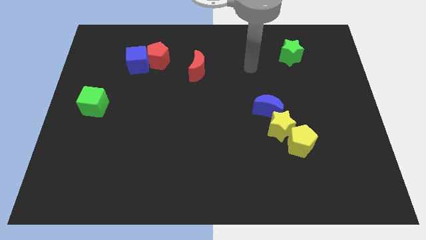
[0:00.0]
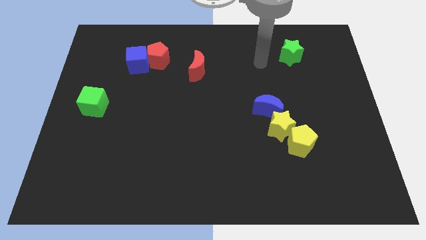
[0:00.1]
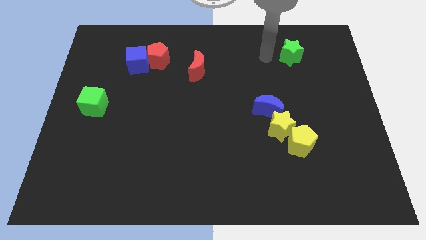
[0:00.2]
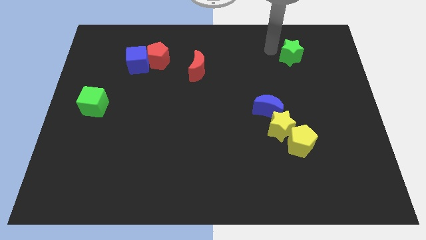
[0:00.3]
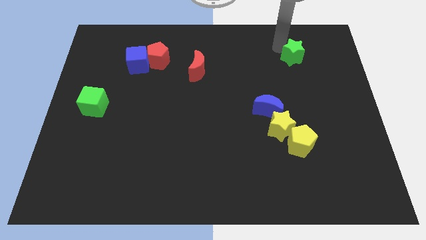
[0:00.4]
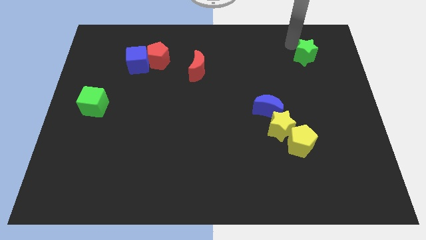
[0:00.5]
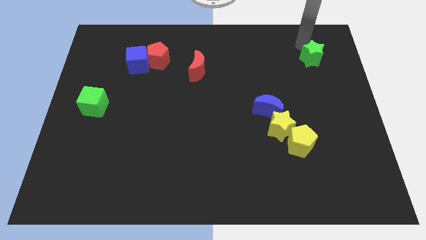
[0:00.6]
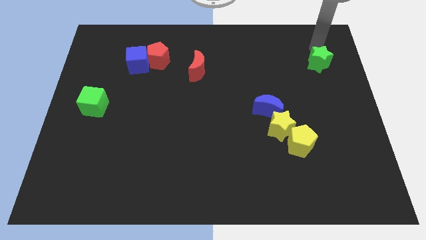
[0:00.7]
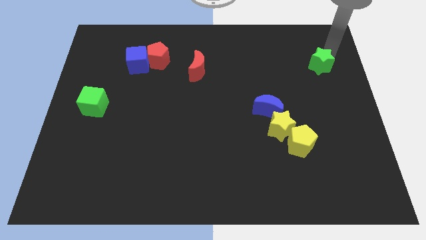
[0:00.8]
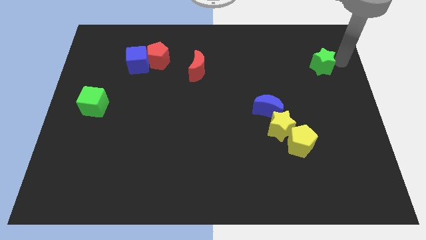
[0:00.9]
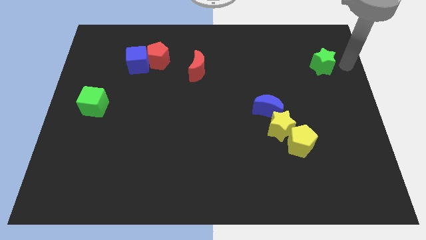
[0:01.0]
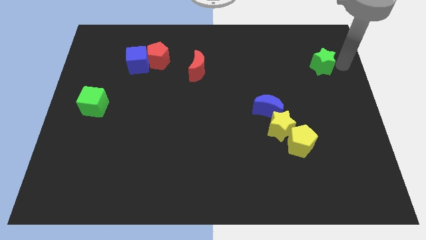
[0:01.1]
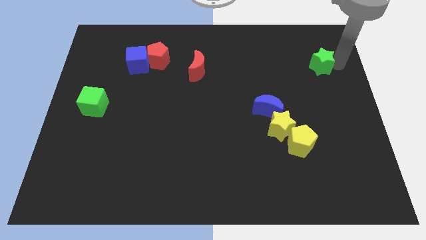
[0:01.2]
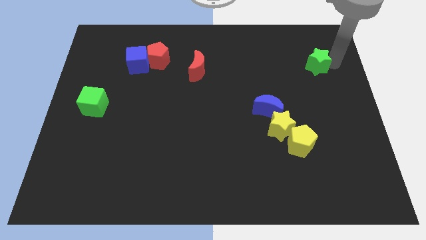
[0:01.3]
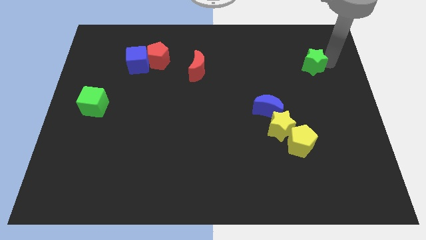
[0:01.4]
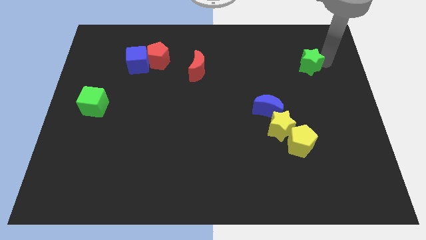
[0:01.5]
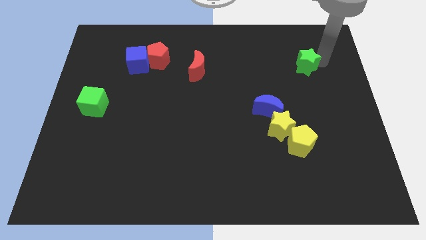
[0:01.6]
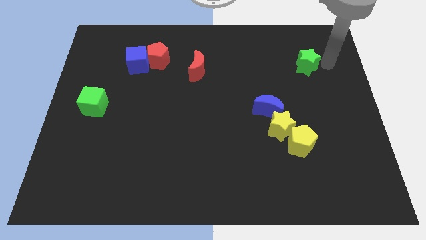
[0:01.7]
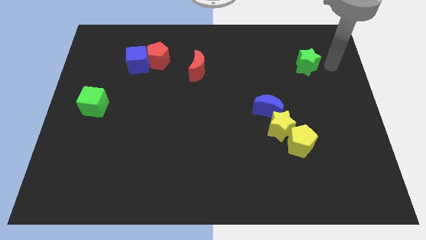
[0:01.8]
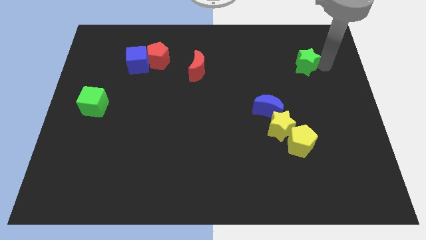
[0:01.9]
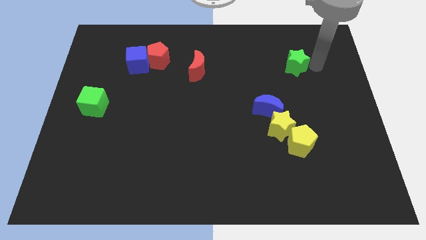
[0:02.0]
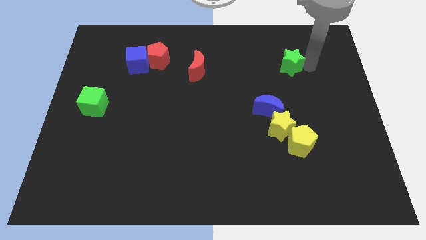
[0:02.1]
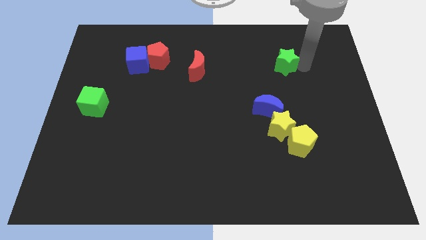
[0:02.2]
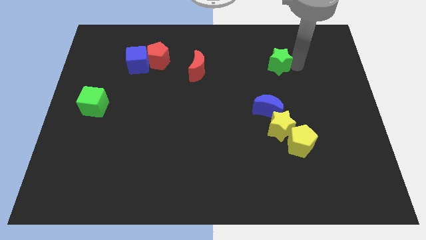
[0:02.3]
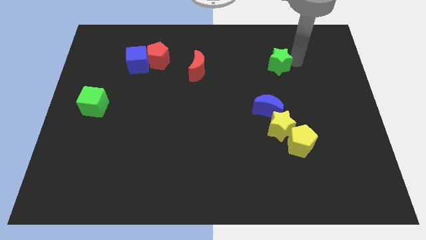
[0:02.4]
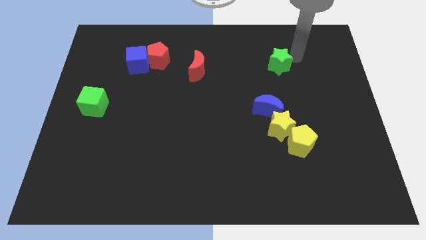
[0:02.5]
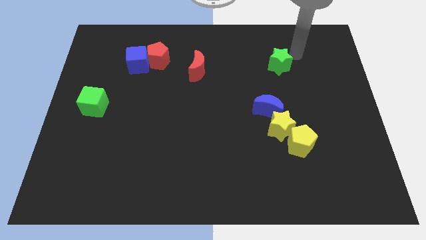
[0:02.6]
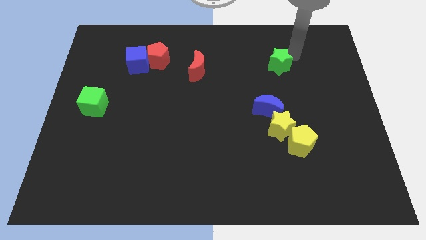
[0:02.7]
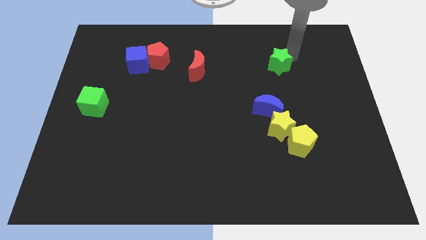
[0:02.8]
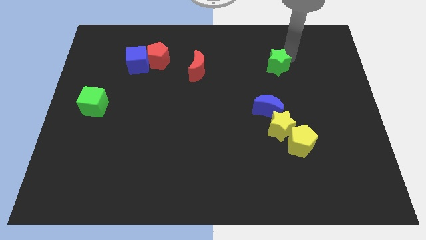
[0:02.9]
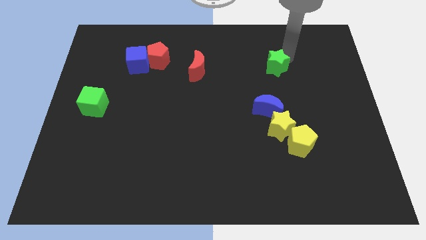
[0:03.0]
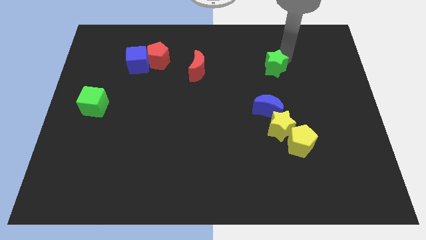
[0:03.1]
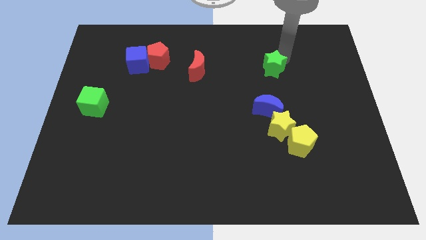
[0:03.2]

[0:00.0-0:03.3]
slide the green star a little diagonally downwards and left

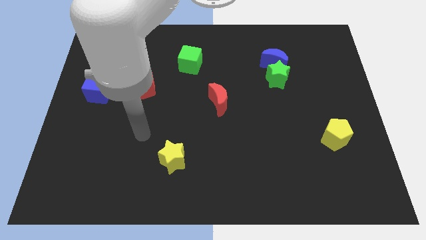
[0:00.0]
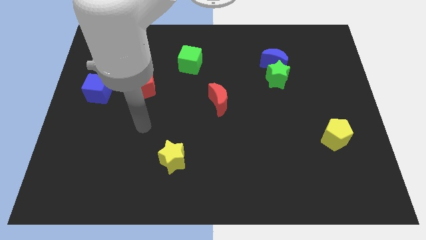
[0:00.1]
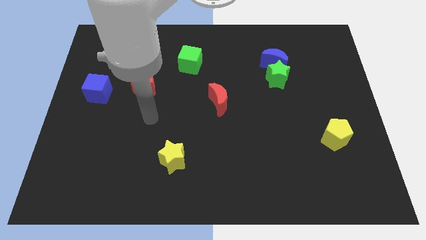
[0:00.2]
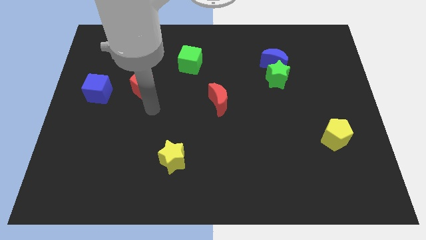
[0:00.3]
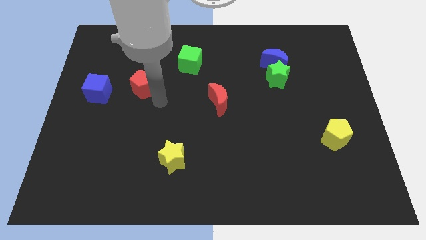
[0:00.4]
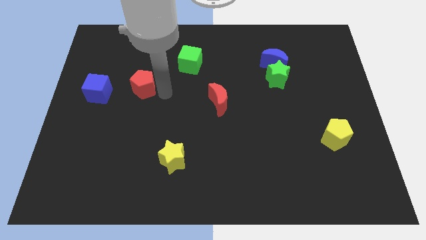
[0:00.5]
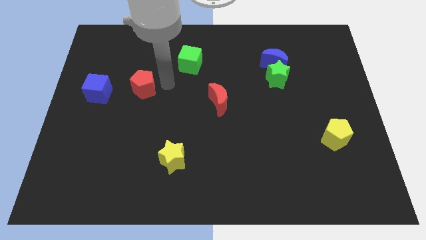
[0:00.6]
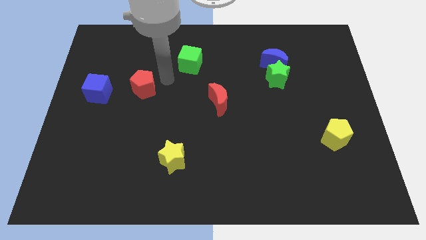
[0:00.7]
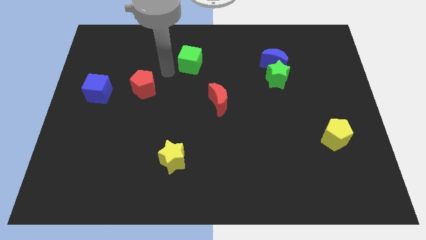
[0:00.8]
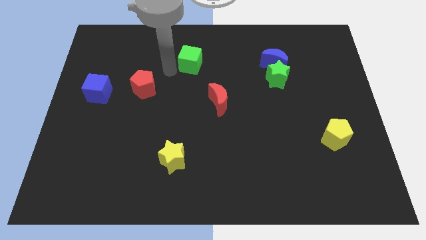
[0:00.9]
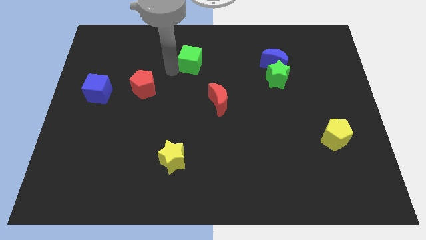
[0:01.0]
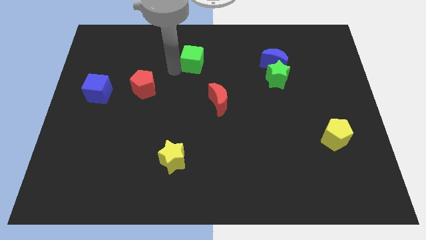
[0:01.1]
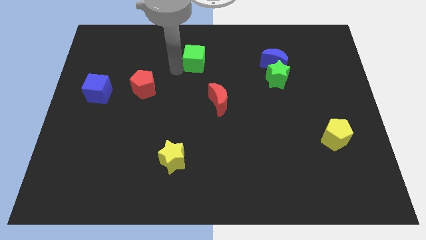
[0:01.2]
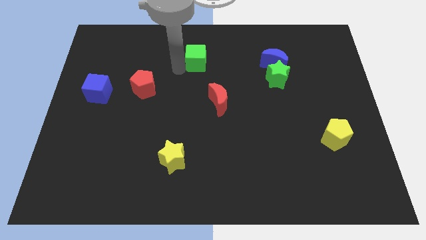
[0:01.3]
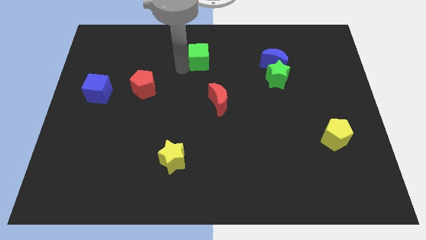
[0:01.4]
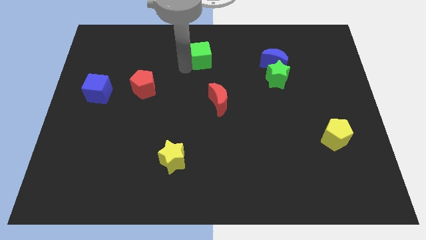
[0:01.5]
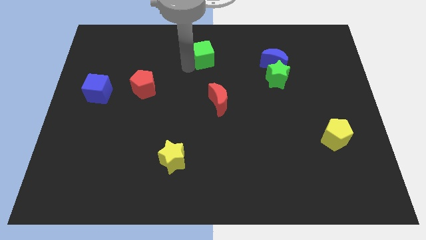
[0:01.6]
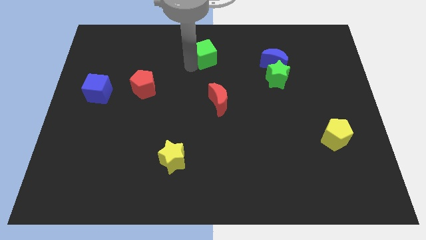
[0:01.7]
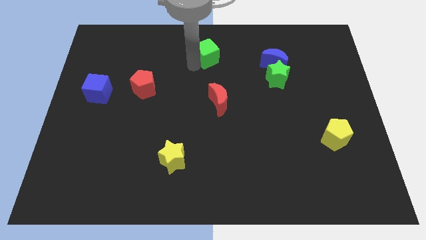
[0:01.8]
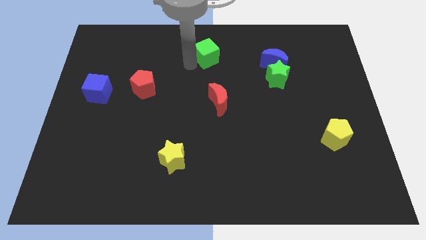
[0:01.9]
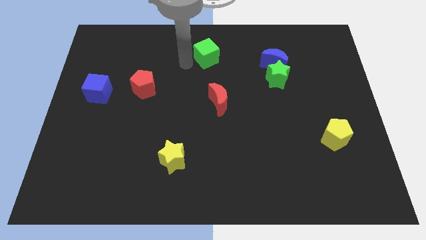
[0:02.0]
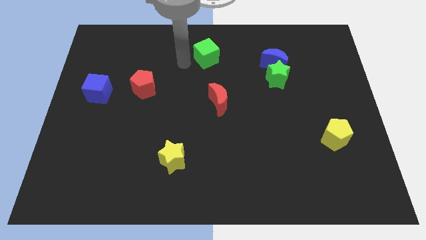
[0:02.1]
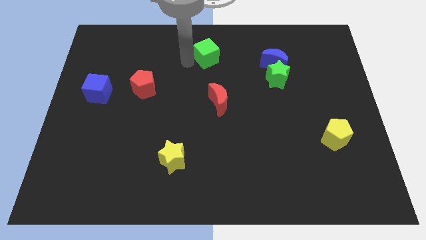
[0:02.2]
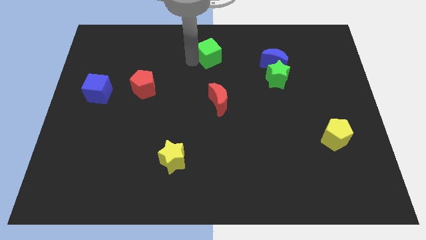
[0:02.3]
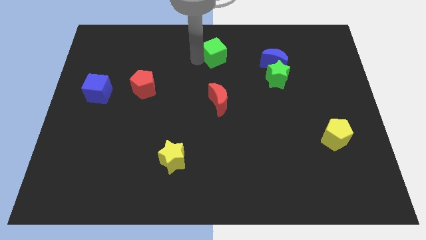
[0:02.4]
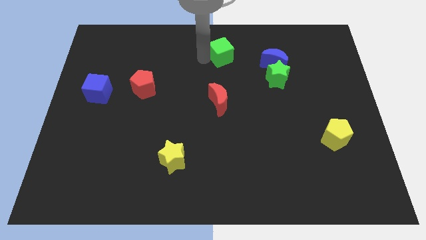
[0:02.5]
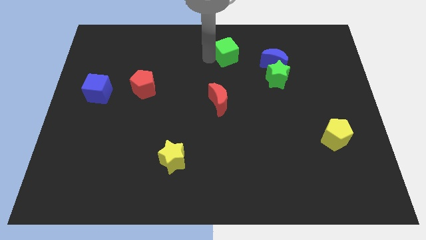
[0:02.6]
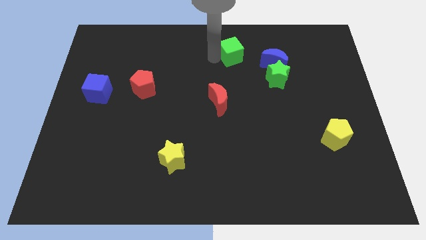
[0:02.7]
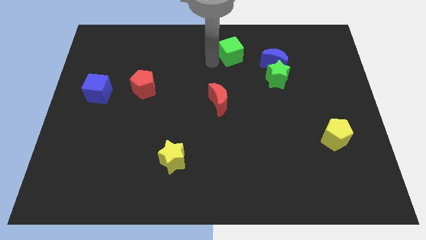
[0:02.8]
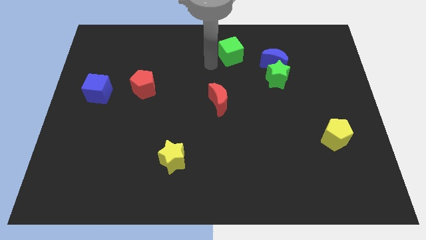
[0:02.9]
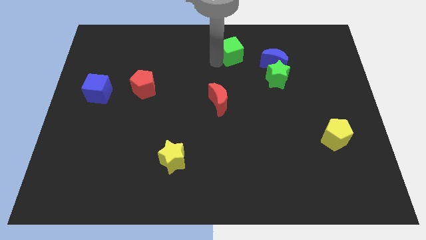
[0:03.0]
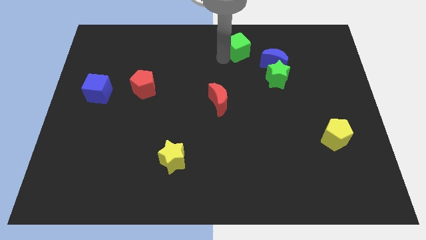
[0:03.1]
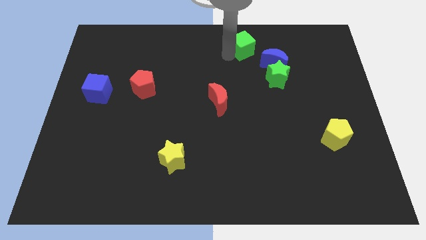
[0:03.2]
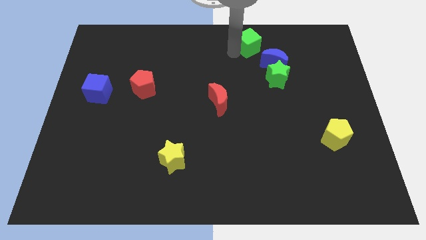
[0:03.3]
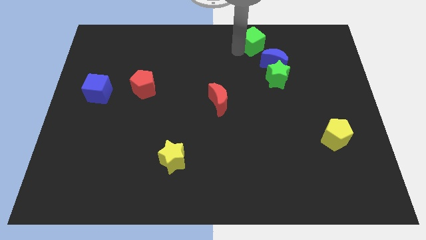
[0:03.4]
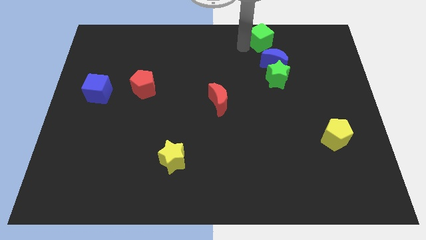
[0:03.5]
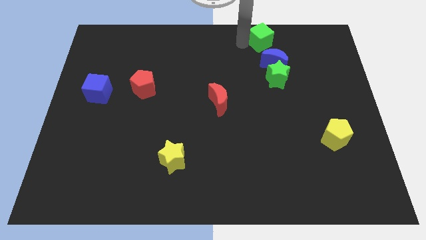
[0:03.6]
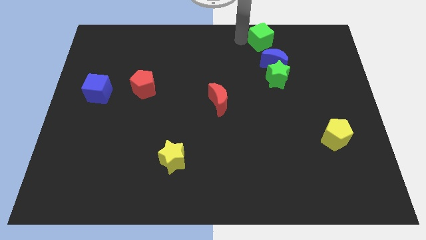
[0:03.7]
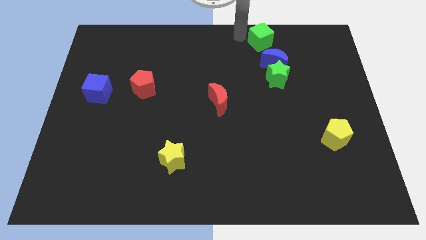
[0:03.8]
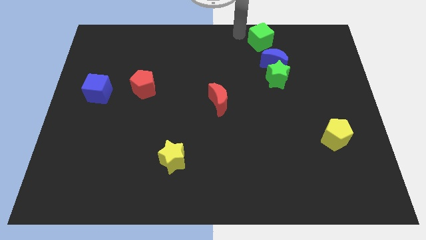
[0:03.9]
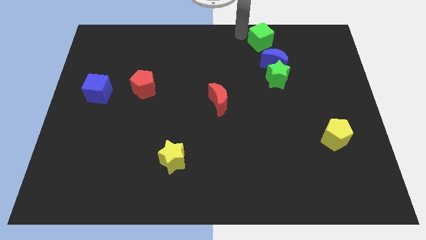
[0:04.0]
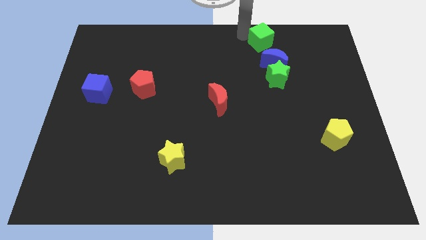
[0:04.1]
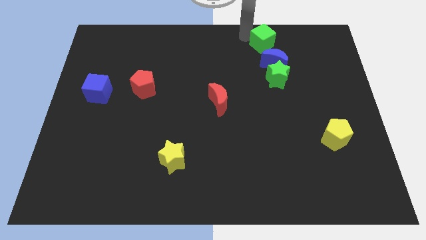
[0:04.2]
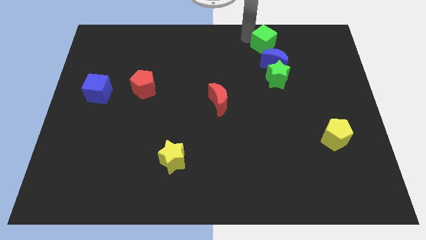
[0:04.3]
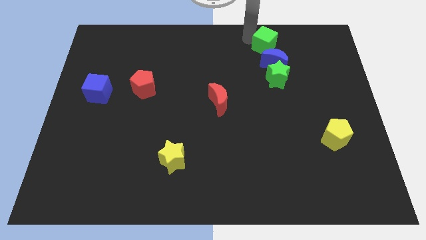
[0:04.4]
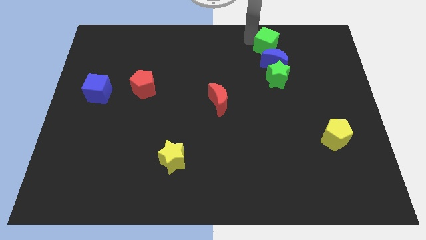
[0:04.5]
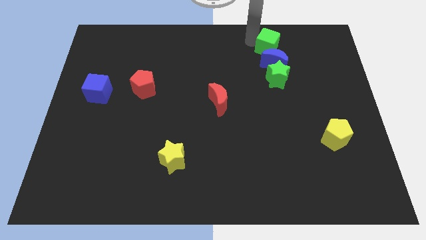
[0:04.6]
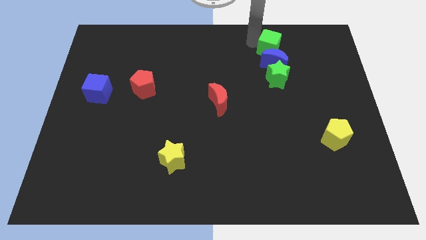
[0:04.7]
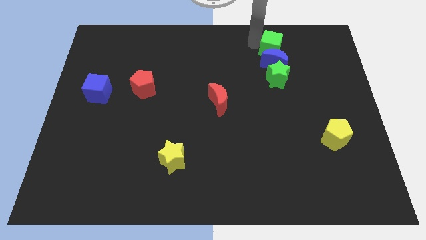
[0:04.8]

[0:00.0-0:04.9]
push the green cube to the right
